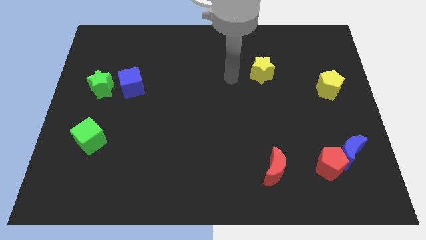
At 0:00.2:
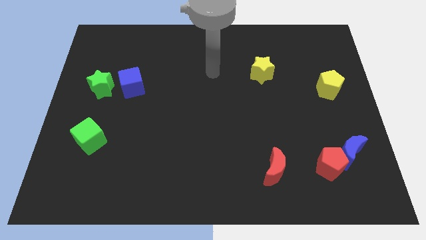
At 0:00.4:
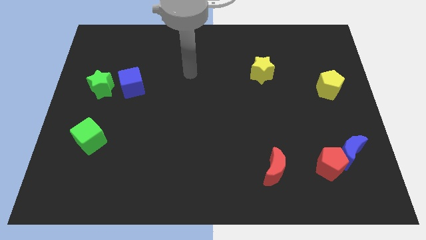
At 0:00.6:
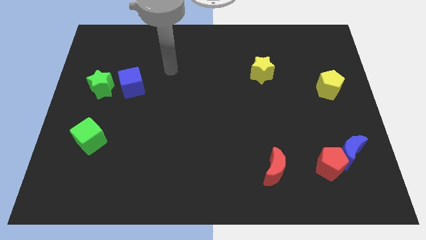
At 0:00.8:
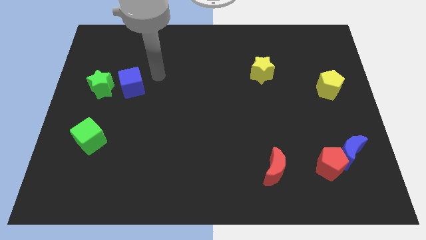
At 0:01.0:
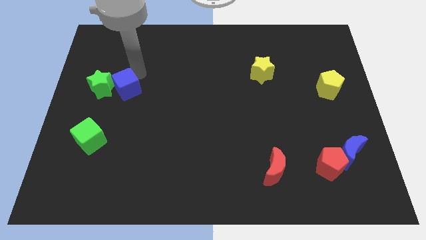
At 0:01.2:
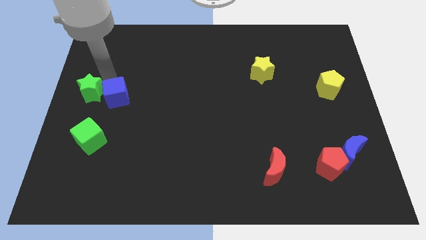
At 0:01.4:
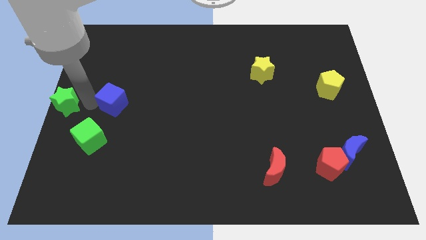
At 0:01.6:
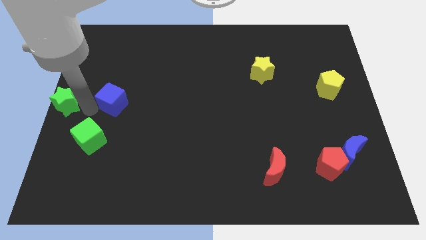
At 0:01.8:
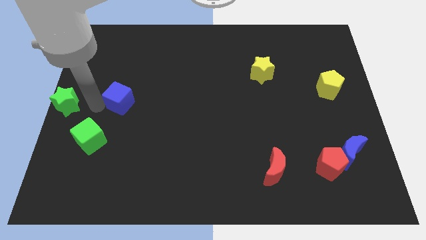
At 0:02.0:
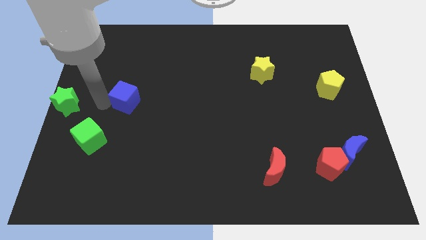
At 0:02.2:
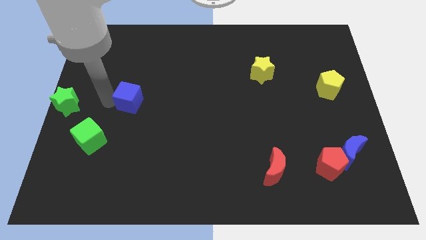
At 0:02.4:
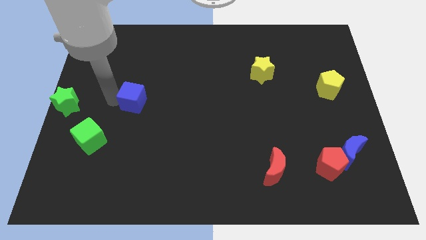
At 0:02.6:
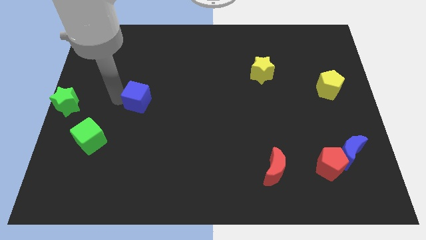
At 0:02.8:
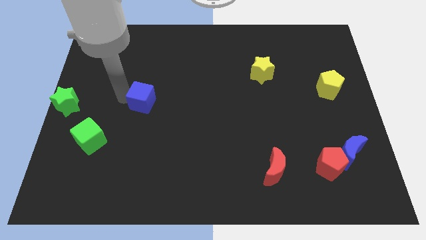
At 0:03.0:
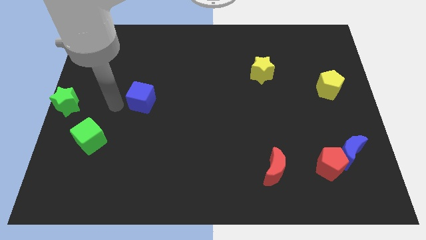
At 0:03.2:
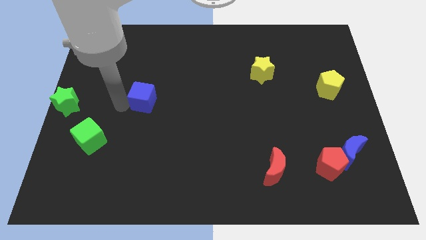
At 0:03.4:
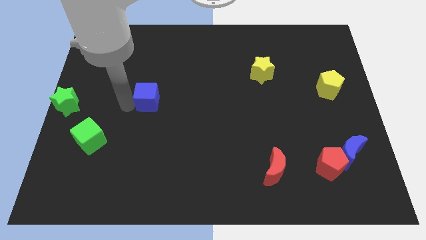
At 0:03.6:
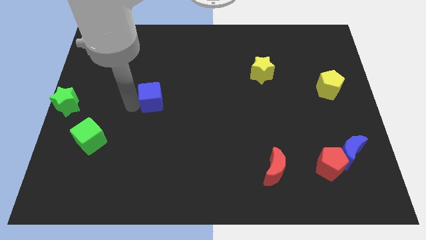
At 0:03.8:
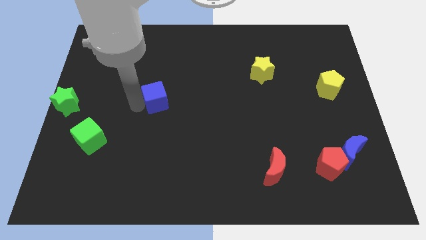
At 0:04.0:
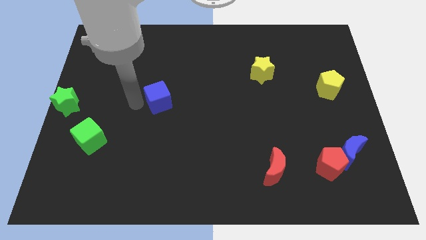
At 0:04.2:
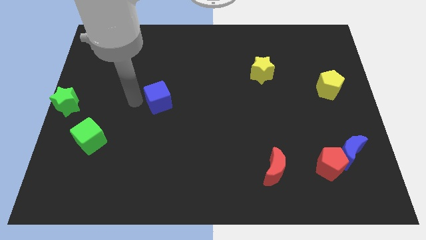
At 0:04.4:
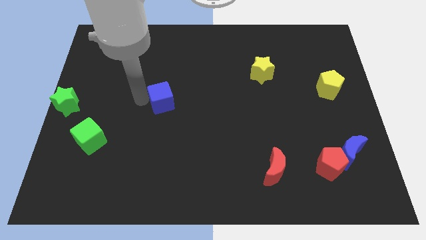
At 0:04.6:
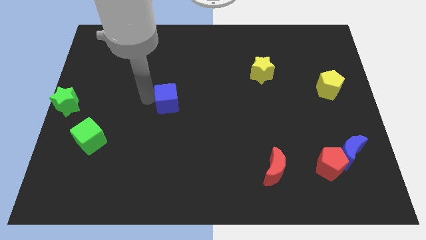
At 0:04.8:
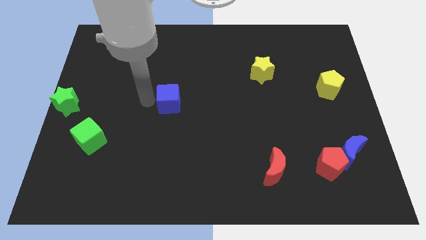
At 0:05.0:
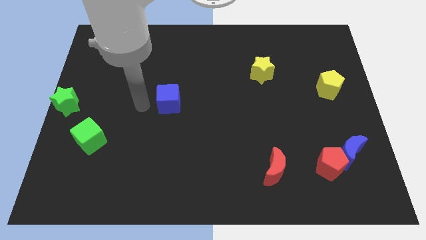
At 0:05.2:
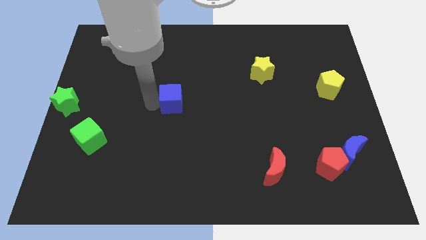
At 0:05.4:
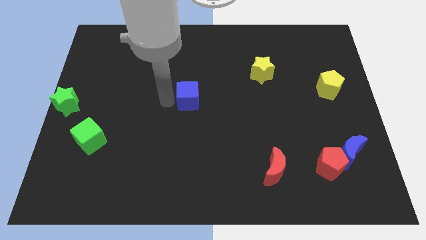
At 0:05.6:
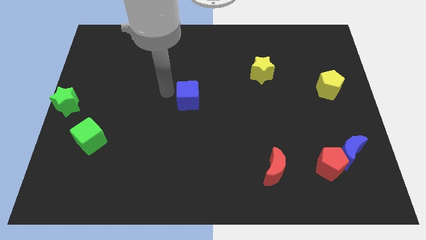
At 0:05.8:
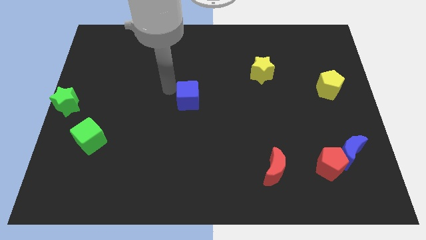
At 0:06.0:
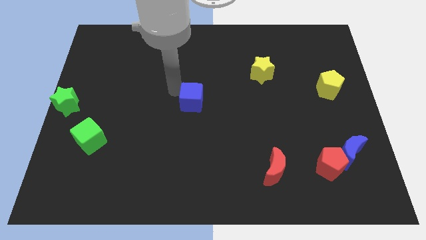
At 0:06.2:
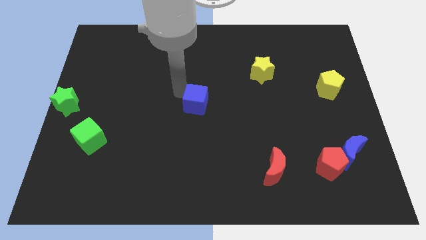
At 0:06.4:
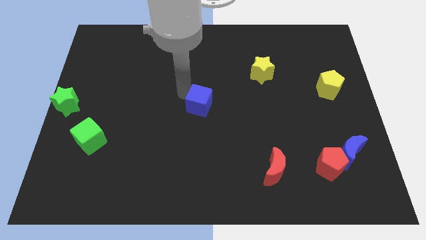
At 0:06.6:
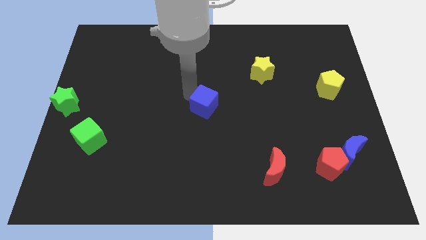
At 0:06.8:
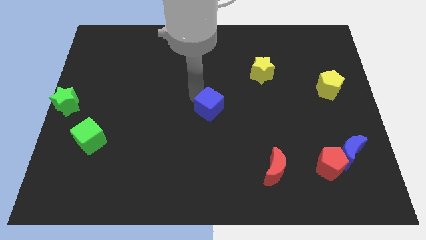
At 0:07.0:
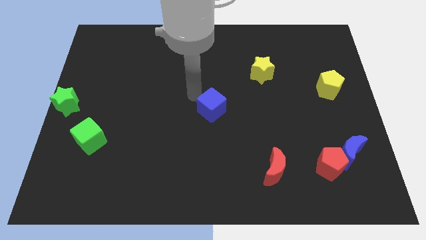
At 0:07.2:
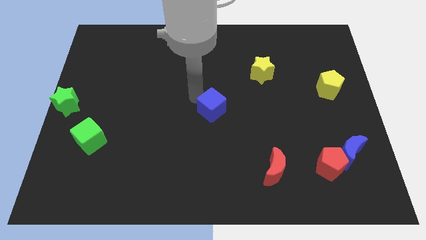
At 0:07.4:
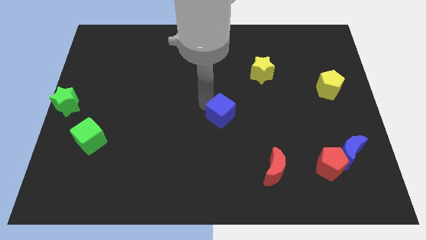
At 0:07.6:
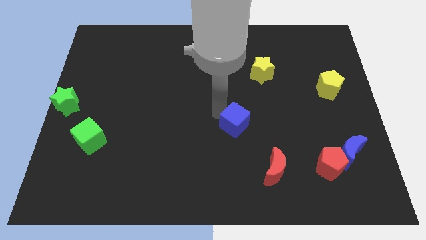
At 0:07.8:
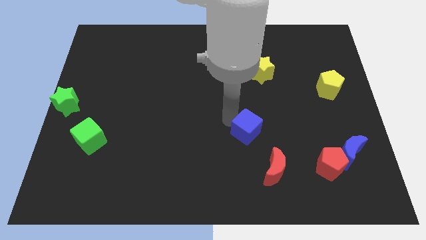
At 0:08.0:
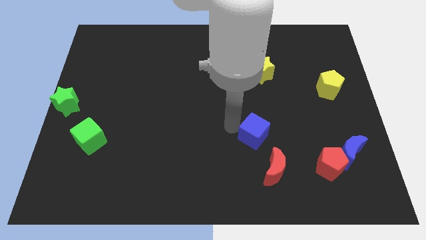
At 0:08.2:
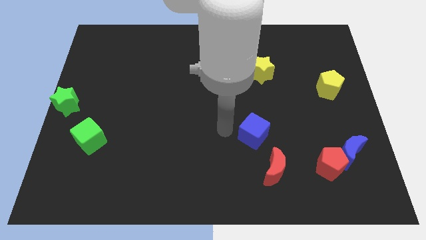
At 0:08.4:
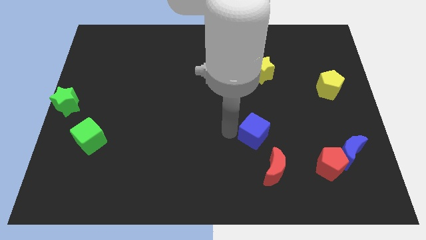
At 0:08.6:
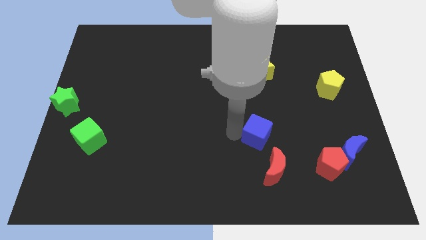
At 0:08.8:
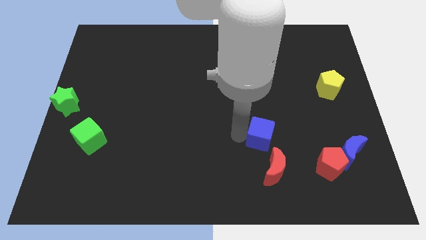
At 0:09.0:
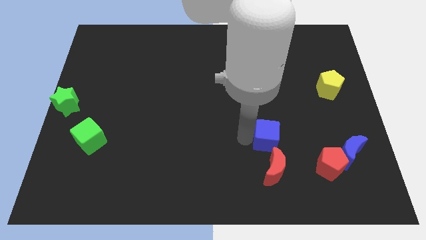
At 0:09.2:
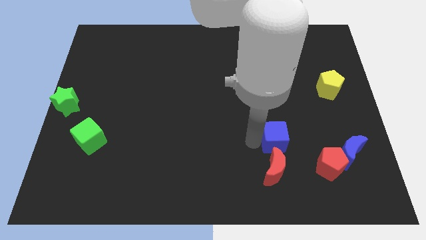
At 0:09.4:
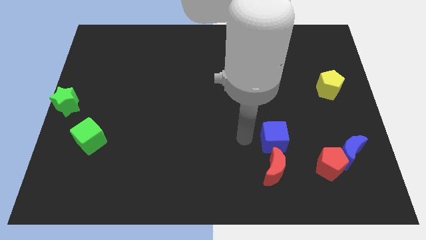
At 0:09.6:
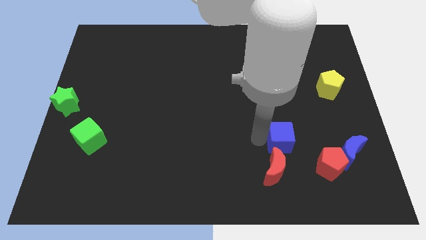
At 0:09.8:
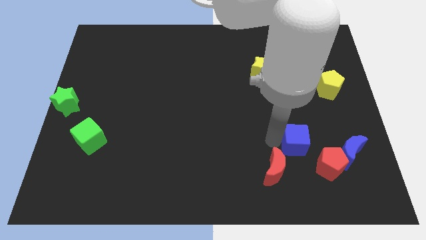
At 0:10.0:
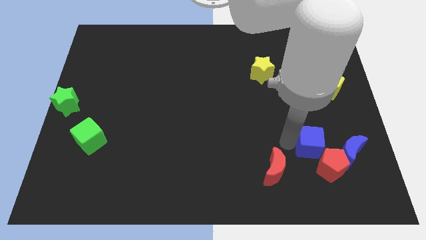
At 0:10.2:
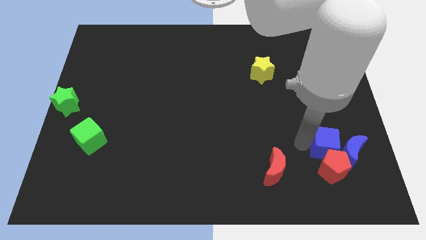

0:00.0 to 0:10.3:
slide the blue cube close to the blue moon

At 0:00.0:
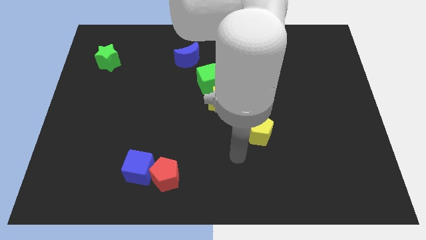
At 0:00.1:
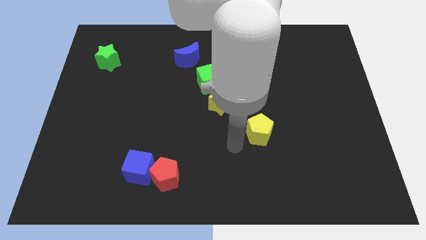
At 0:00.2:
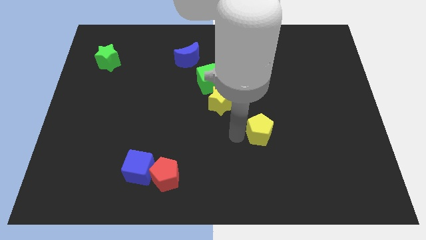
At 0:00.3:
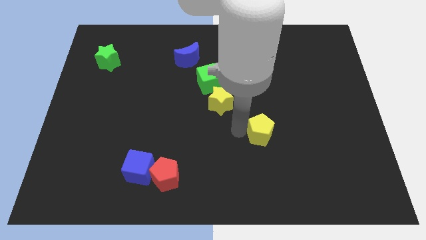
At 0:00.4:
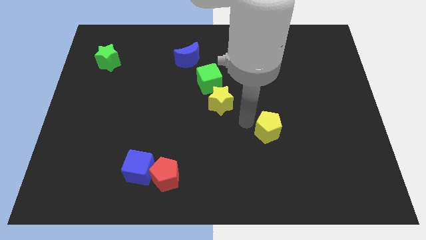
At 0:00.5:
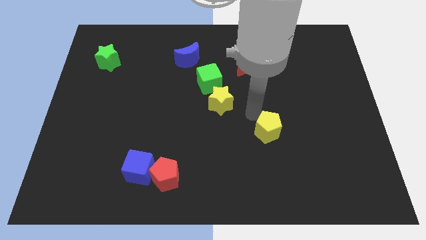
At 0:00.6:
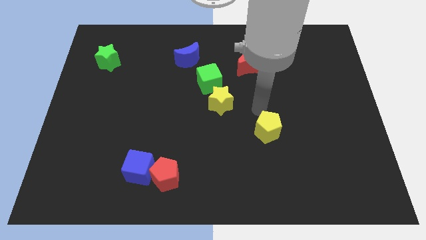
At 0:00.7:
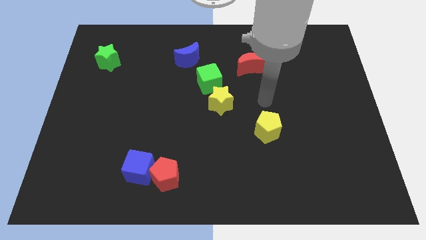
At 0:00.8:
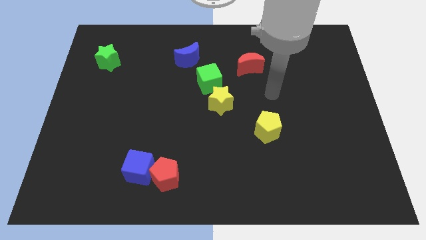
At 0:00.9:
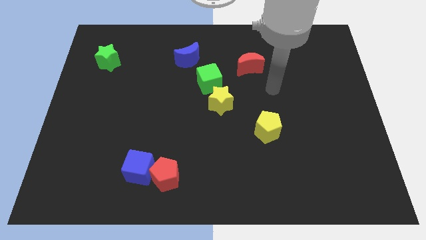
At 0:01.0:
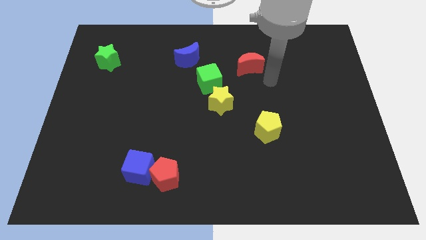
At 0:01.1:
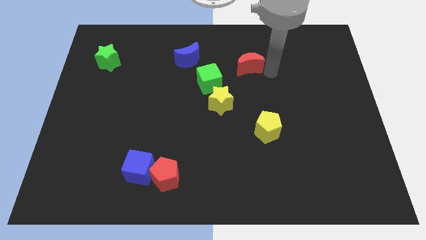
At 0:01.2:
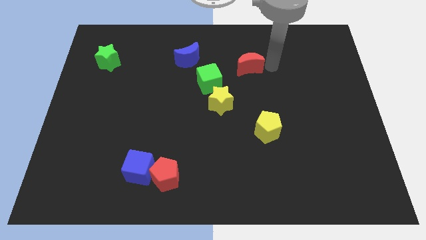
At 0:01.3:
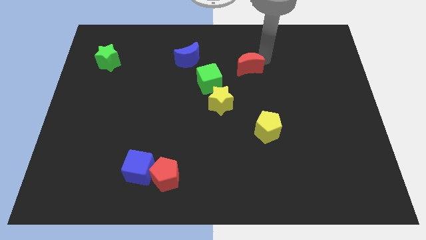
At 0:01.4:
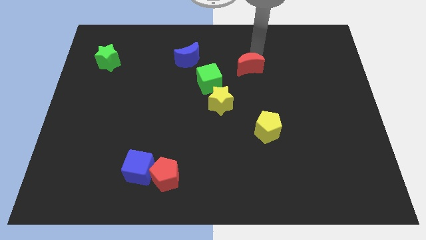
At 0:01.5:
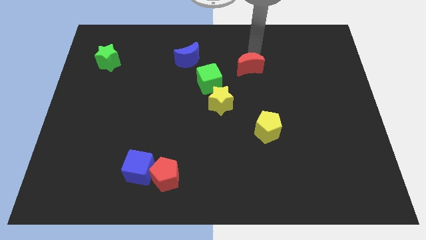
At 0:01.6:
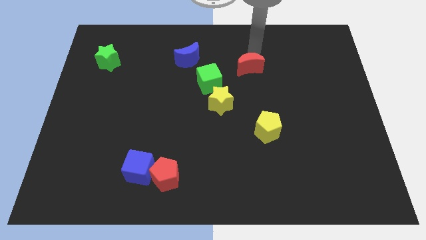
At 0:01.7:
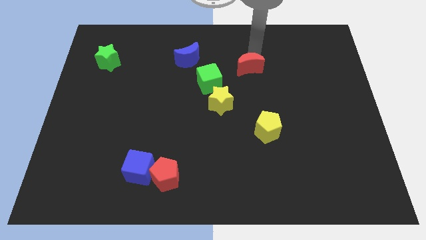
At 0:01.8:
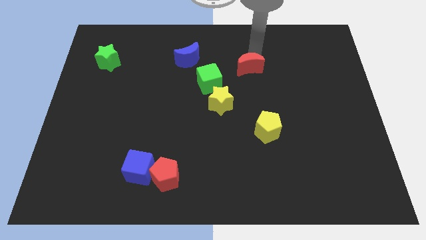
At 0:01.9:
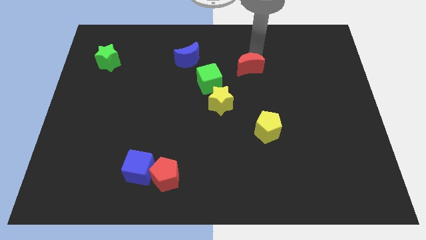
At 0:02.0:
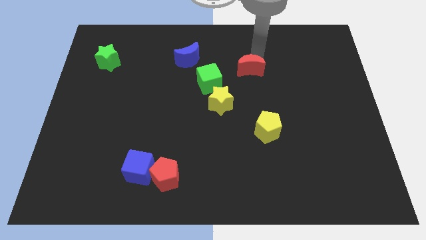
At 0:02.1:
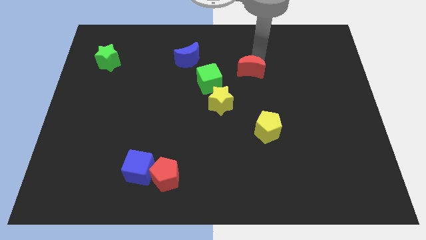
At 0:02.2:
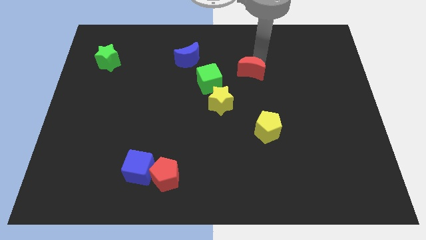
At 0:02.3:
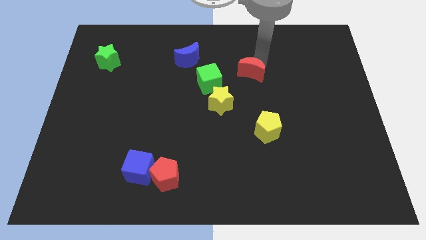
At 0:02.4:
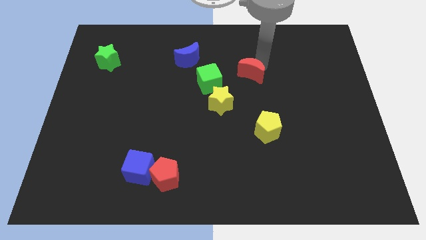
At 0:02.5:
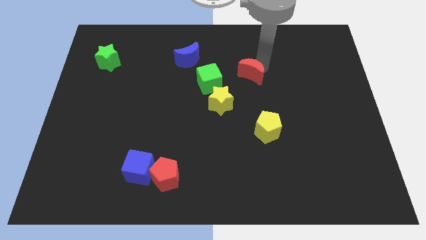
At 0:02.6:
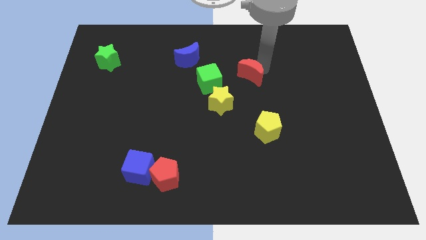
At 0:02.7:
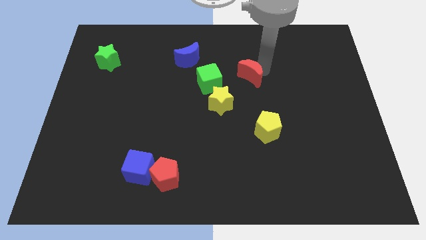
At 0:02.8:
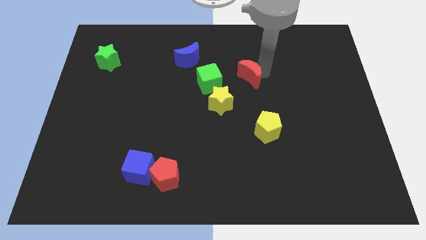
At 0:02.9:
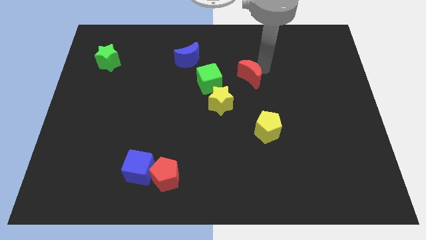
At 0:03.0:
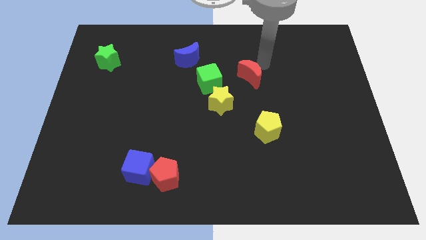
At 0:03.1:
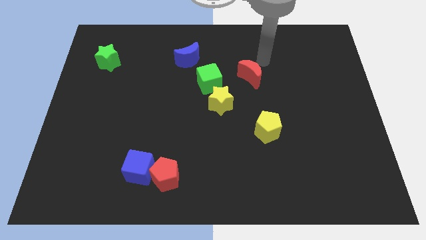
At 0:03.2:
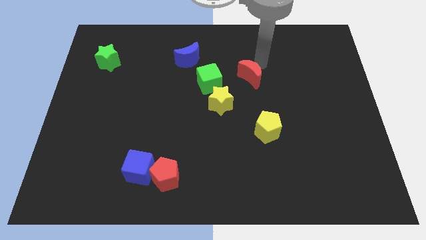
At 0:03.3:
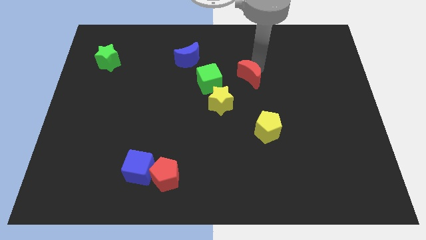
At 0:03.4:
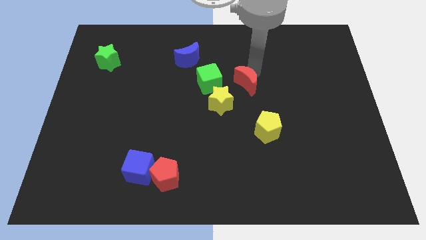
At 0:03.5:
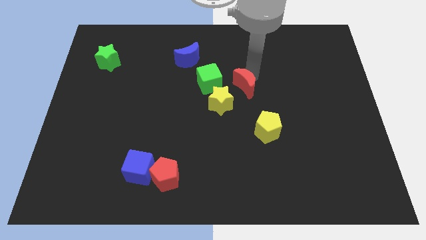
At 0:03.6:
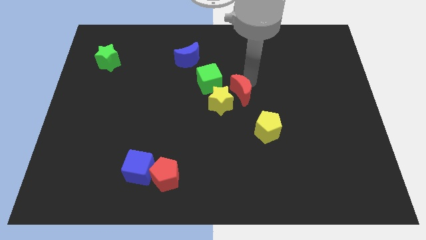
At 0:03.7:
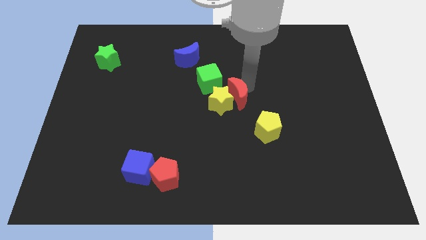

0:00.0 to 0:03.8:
put the red moon close to the yellow star
